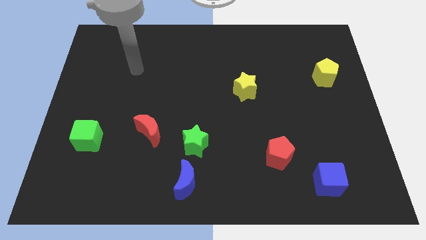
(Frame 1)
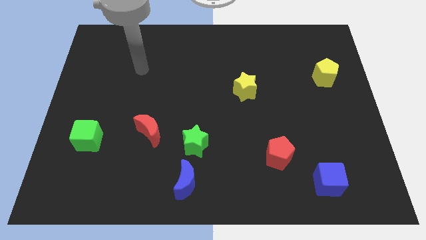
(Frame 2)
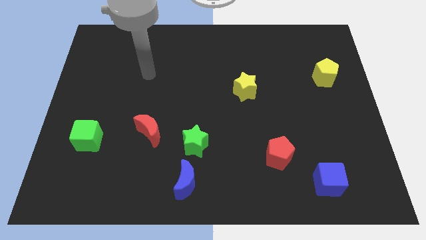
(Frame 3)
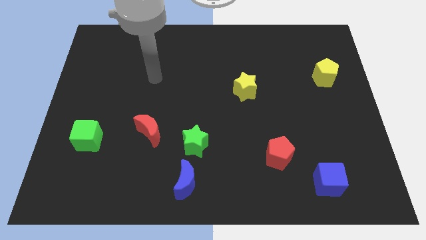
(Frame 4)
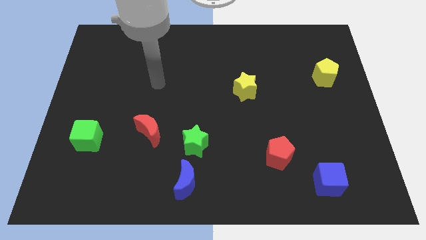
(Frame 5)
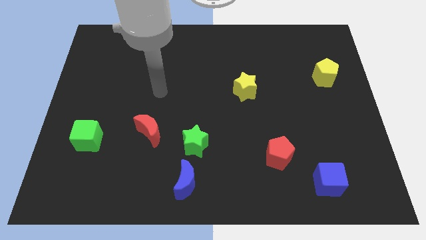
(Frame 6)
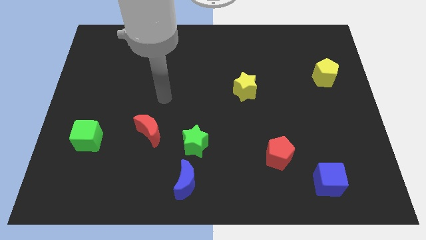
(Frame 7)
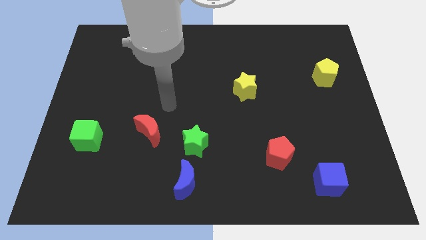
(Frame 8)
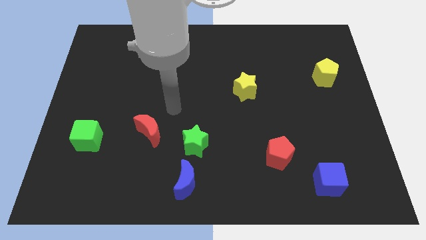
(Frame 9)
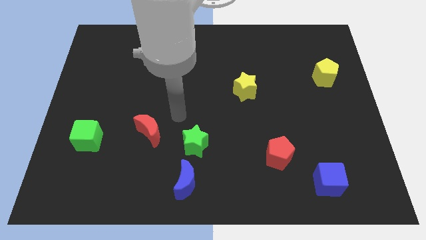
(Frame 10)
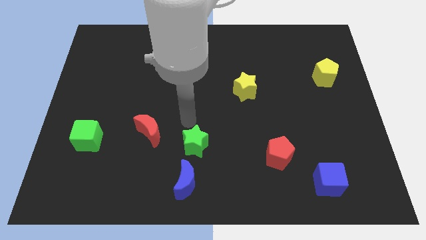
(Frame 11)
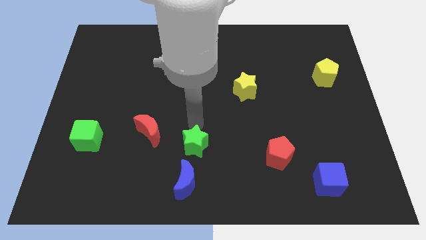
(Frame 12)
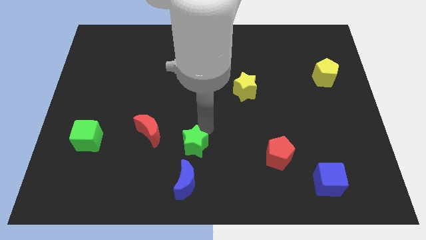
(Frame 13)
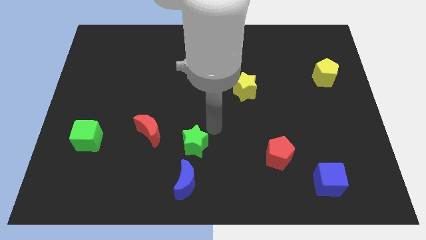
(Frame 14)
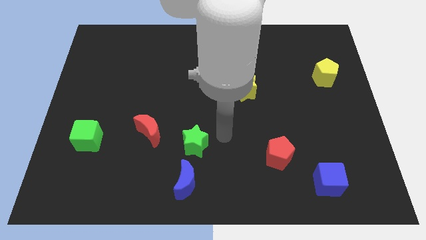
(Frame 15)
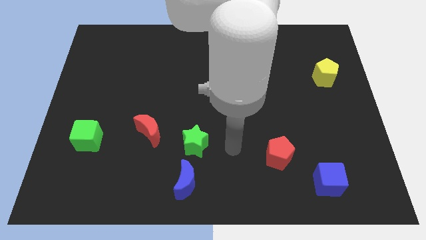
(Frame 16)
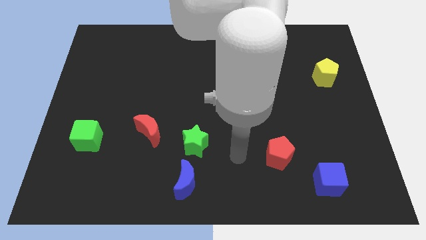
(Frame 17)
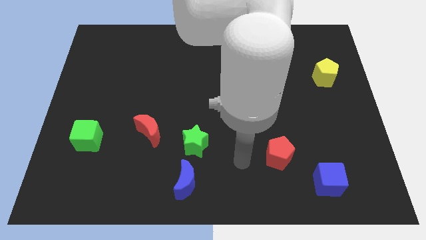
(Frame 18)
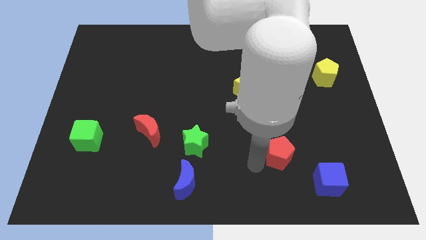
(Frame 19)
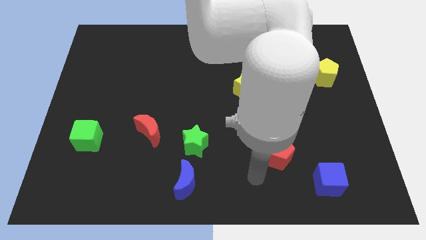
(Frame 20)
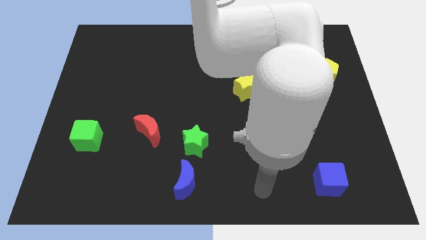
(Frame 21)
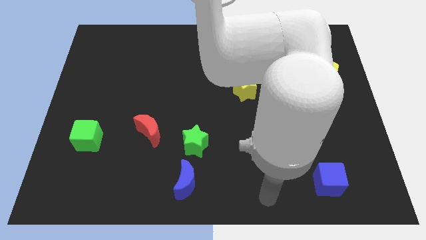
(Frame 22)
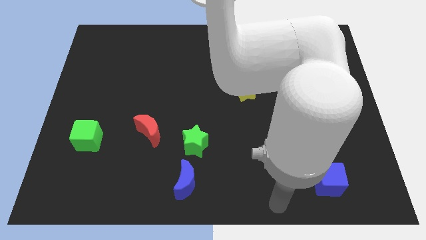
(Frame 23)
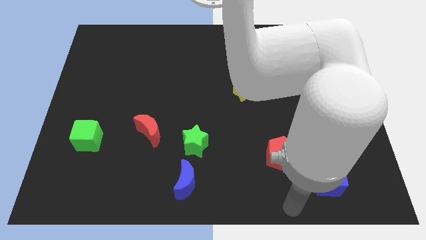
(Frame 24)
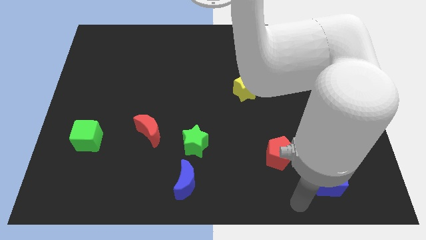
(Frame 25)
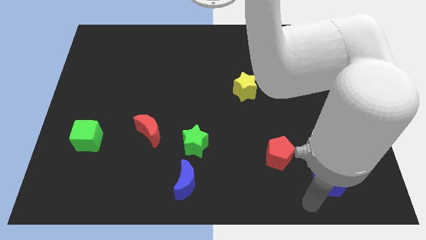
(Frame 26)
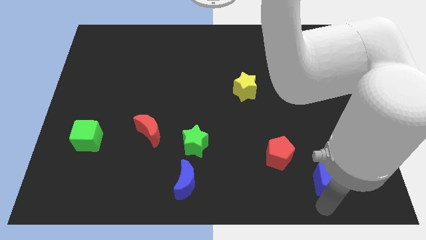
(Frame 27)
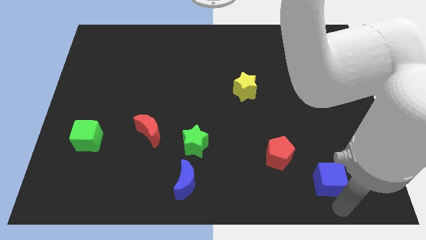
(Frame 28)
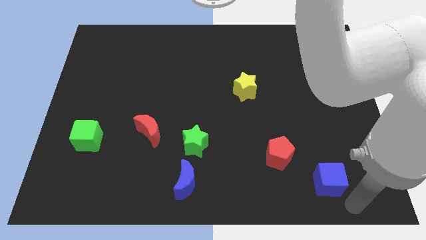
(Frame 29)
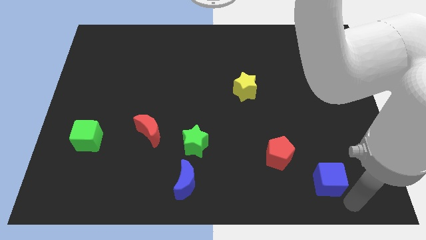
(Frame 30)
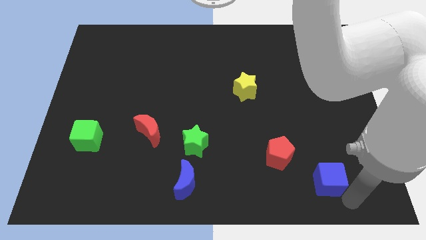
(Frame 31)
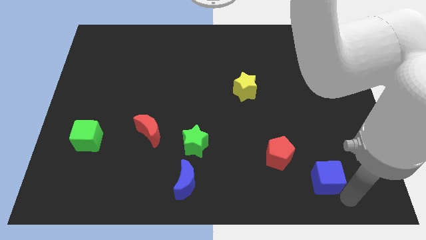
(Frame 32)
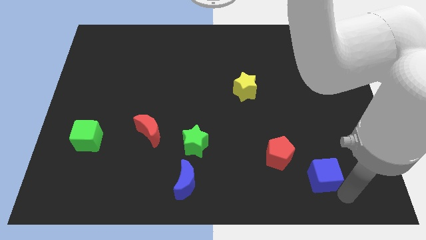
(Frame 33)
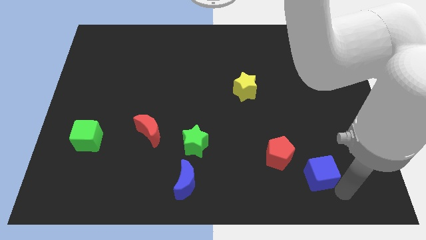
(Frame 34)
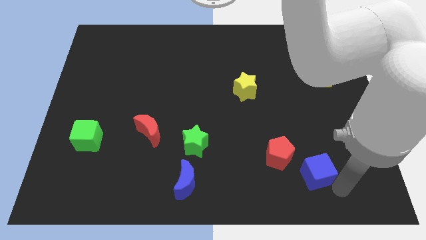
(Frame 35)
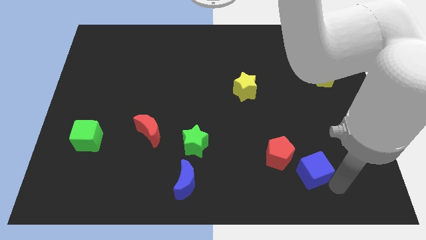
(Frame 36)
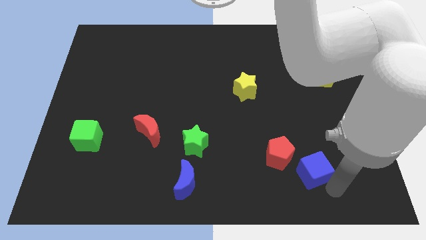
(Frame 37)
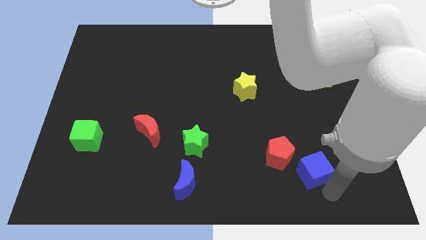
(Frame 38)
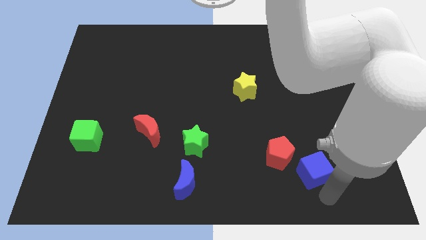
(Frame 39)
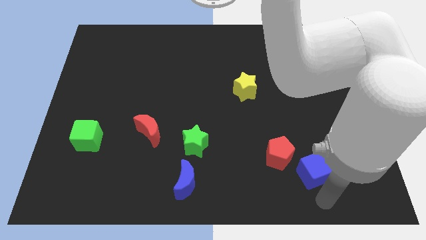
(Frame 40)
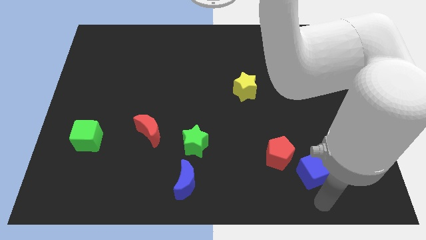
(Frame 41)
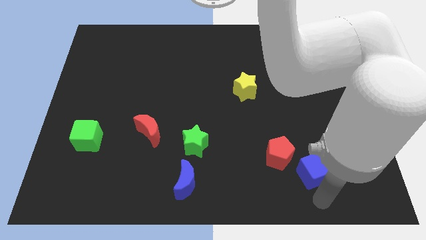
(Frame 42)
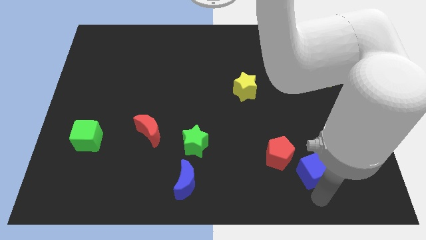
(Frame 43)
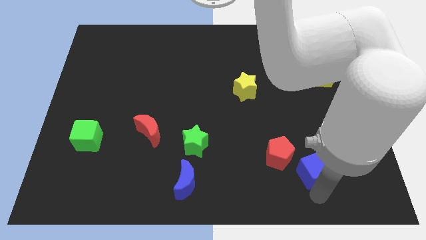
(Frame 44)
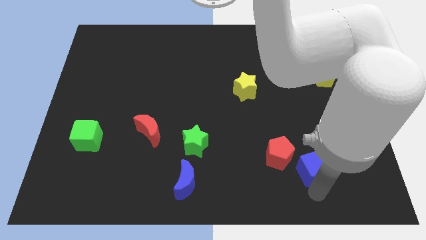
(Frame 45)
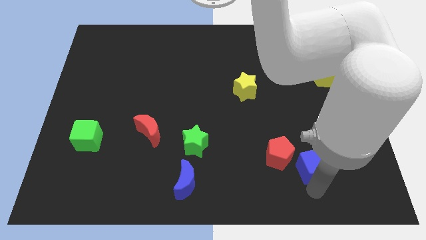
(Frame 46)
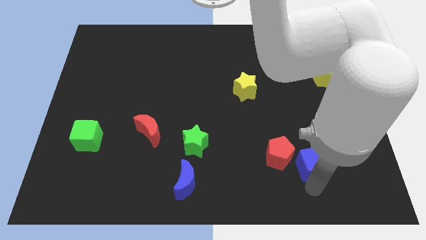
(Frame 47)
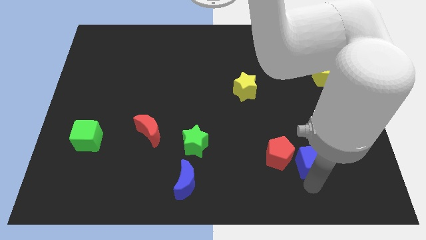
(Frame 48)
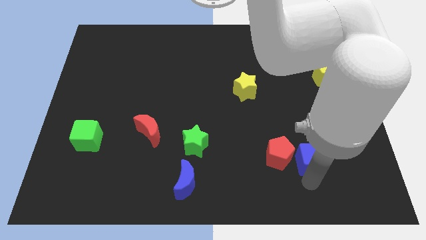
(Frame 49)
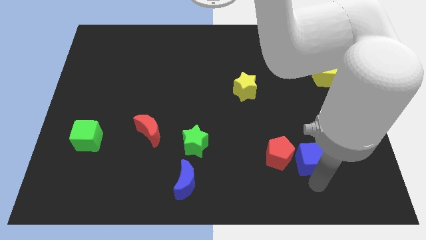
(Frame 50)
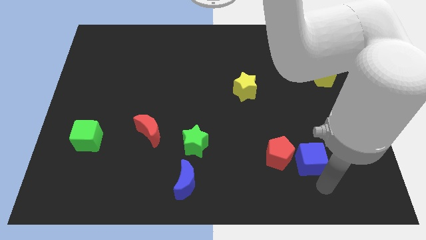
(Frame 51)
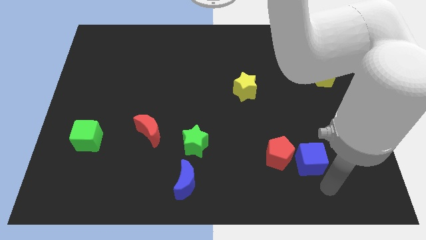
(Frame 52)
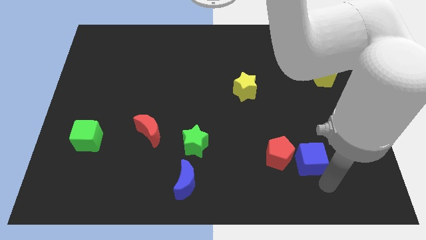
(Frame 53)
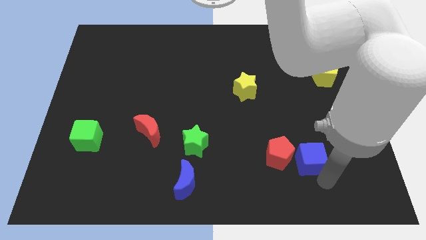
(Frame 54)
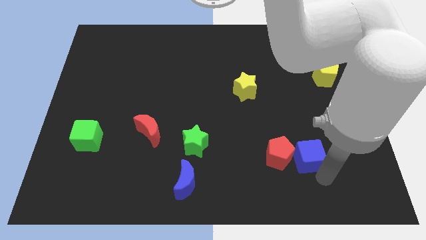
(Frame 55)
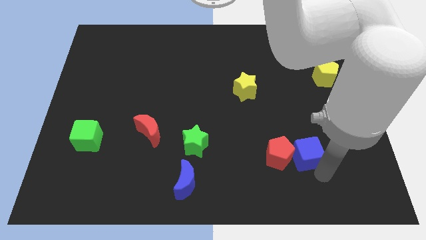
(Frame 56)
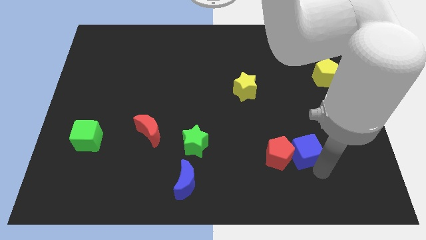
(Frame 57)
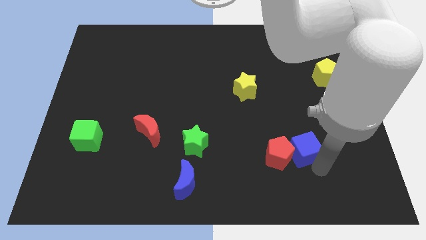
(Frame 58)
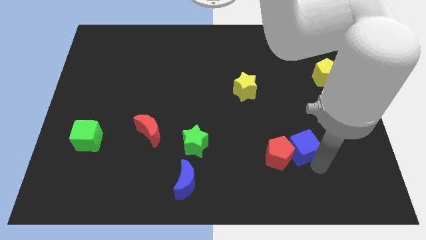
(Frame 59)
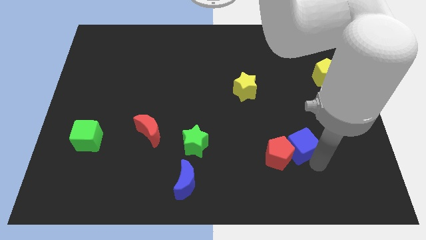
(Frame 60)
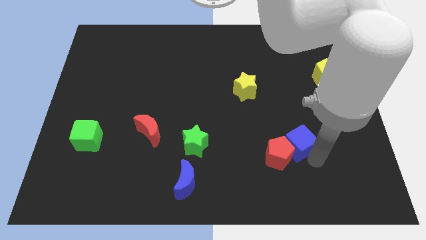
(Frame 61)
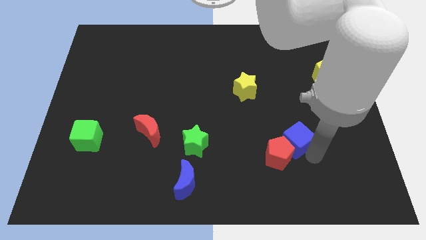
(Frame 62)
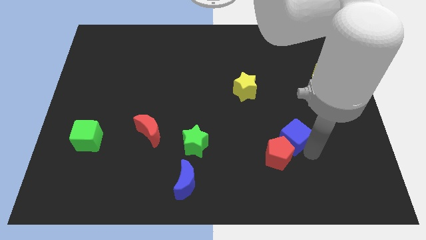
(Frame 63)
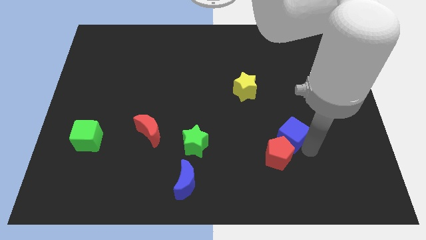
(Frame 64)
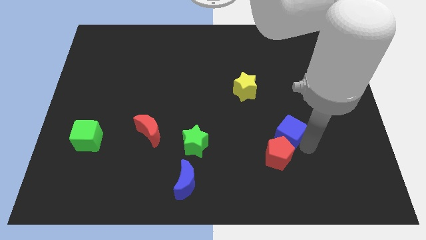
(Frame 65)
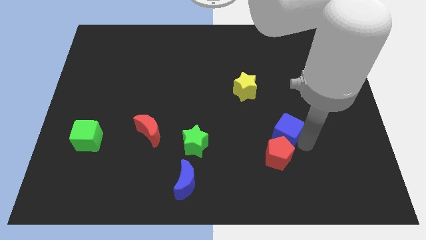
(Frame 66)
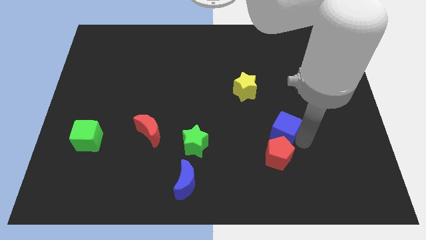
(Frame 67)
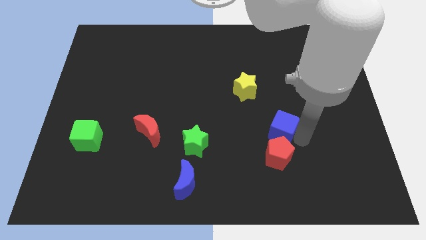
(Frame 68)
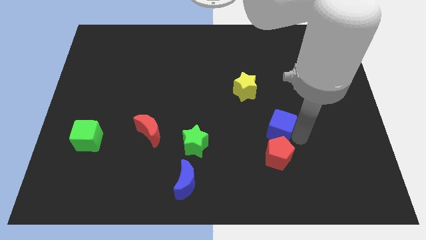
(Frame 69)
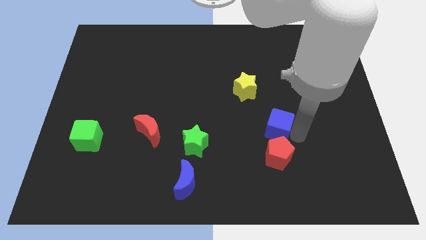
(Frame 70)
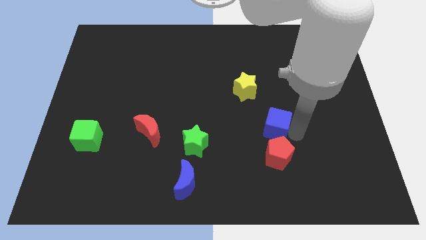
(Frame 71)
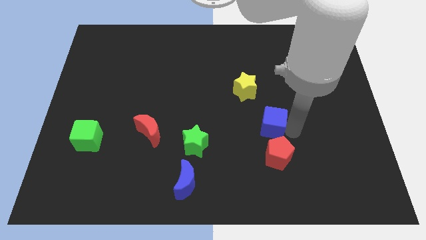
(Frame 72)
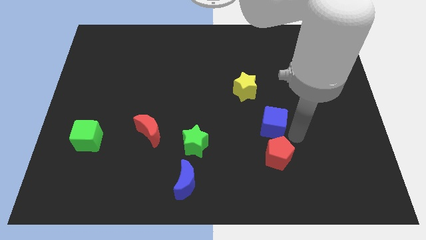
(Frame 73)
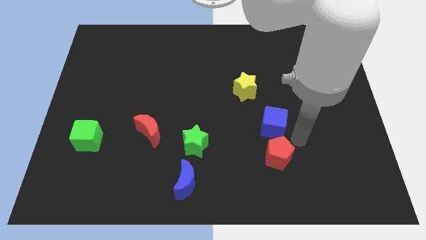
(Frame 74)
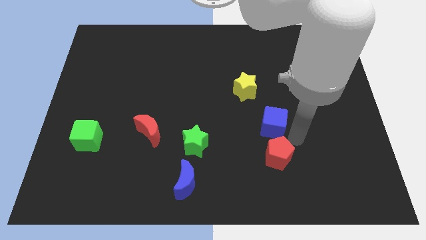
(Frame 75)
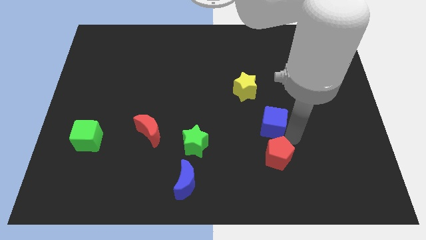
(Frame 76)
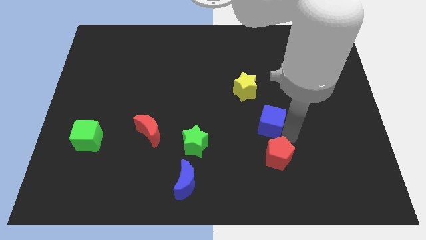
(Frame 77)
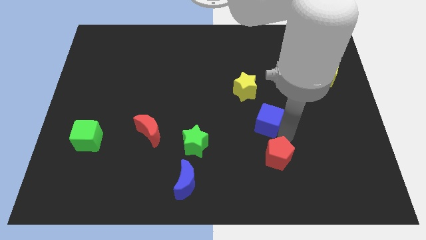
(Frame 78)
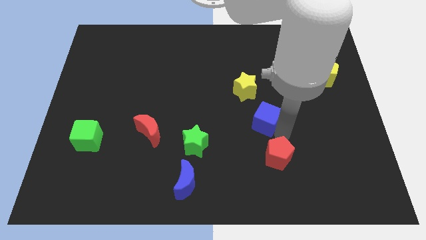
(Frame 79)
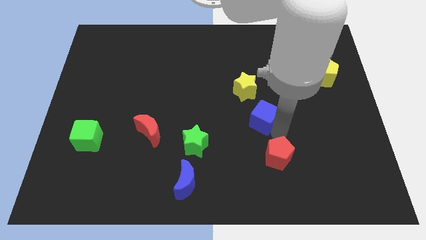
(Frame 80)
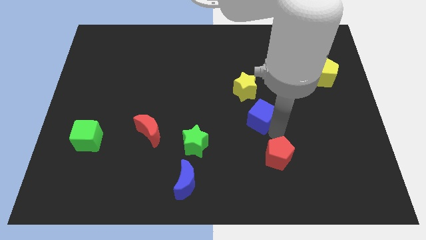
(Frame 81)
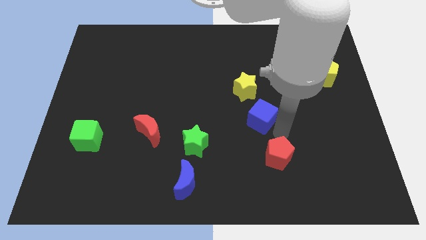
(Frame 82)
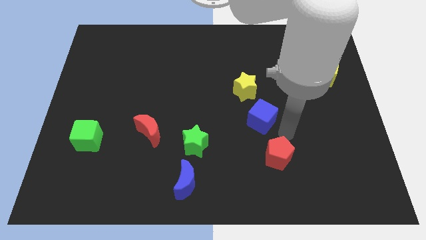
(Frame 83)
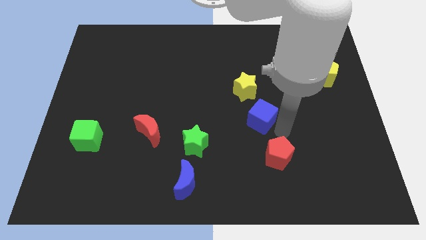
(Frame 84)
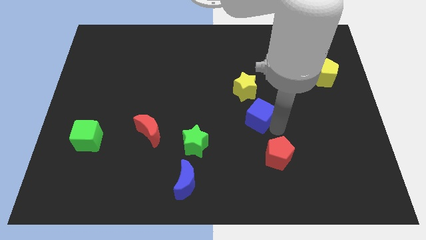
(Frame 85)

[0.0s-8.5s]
slide the blue cube up and left diagonally
